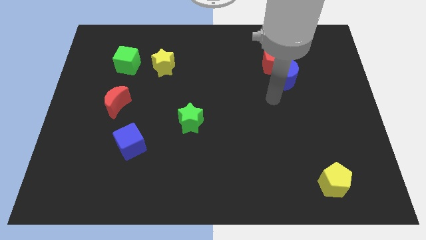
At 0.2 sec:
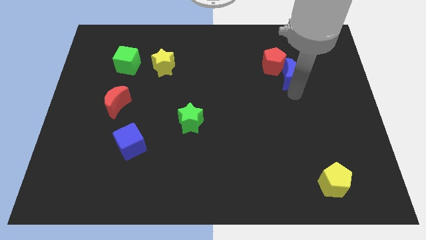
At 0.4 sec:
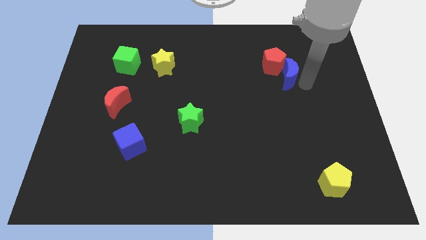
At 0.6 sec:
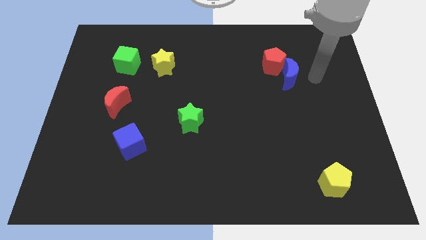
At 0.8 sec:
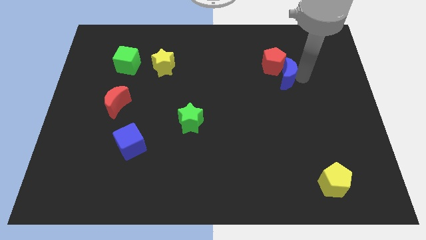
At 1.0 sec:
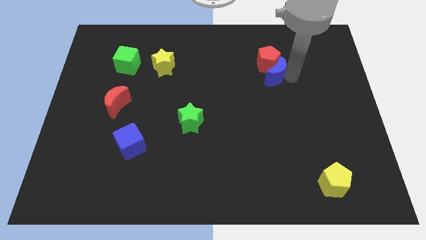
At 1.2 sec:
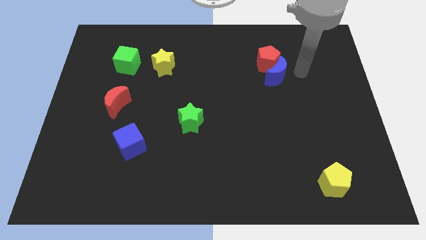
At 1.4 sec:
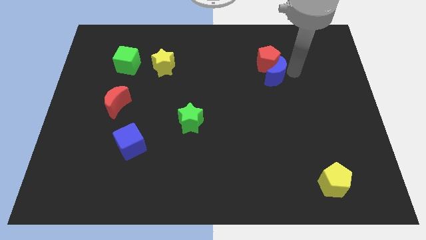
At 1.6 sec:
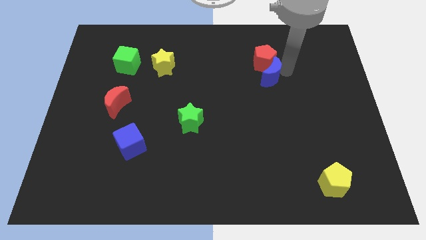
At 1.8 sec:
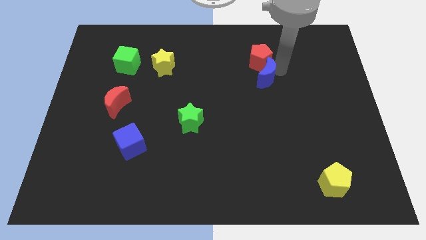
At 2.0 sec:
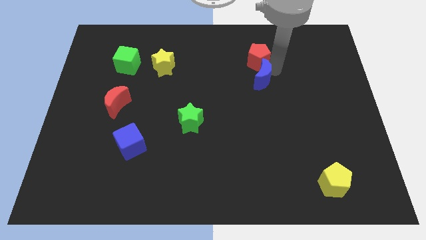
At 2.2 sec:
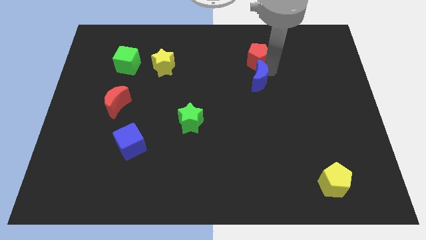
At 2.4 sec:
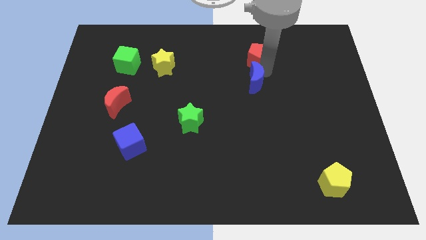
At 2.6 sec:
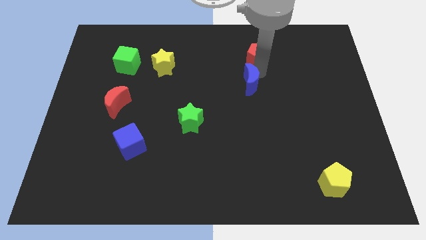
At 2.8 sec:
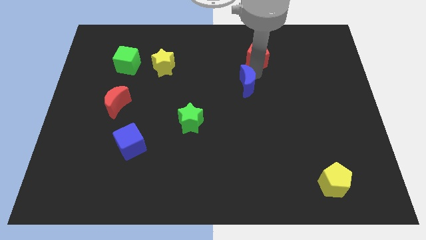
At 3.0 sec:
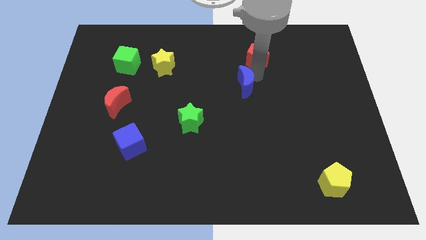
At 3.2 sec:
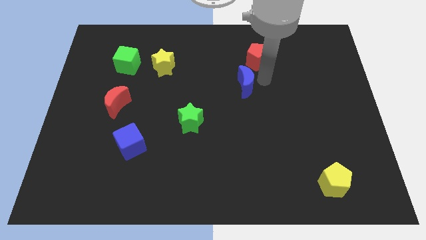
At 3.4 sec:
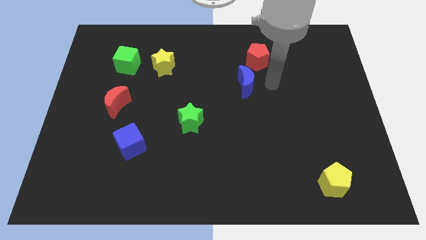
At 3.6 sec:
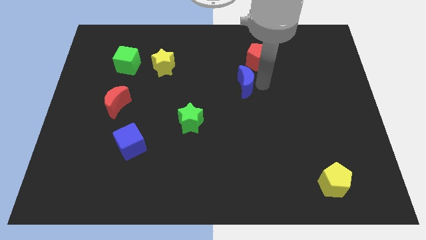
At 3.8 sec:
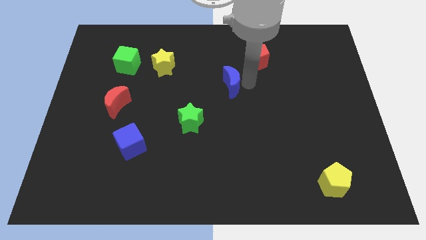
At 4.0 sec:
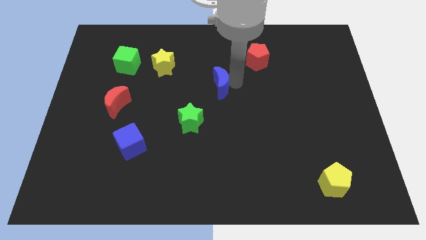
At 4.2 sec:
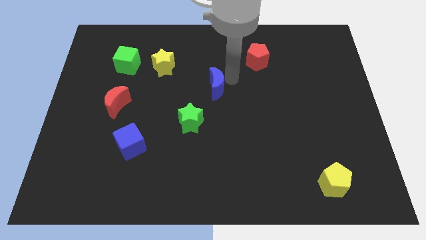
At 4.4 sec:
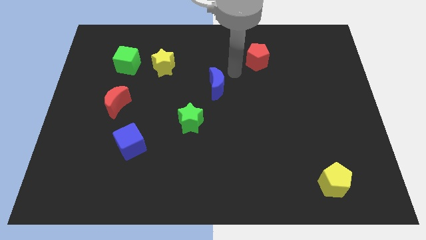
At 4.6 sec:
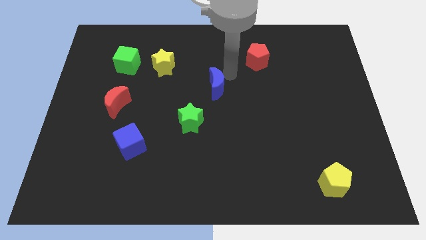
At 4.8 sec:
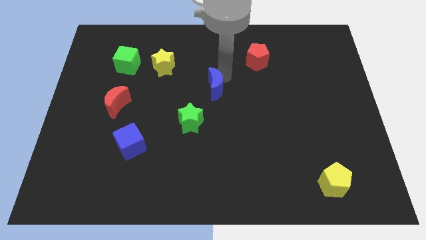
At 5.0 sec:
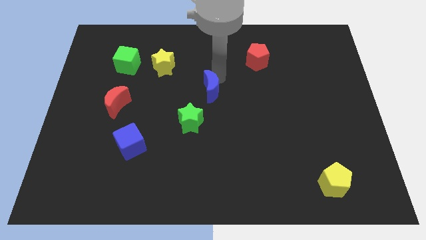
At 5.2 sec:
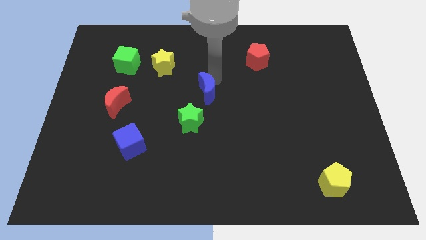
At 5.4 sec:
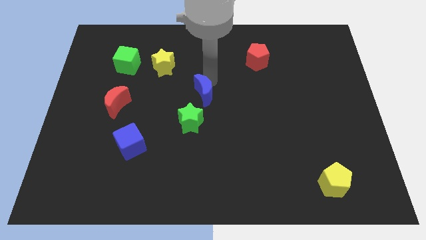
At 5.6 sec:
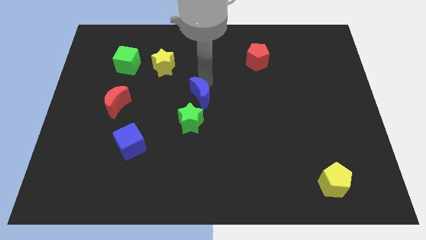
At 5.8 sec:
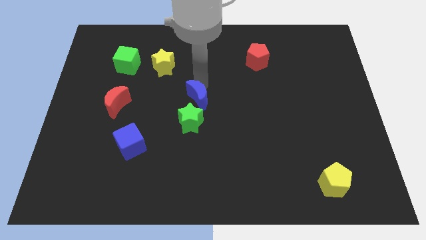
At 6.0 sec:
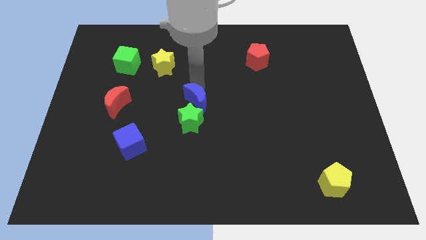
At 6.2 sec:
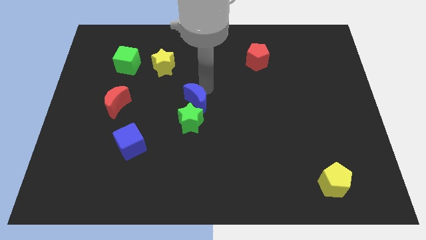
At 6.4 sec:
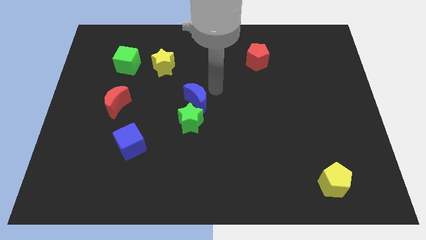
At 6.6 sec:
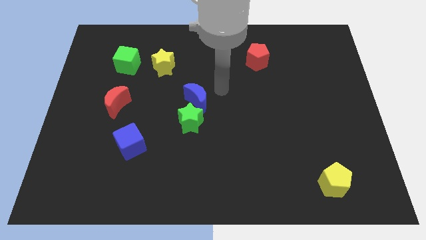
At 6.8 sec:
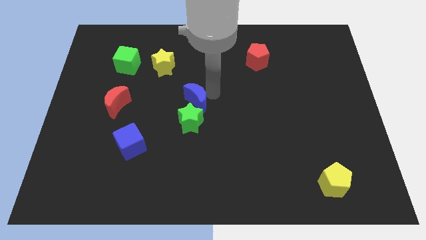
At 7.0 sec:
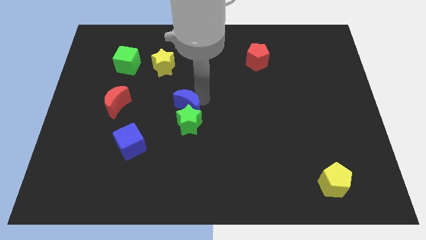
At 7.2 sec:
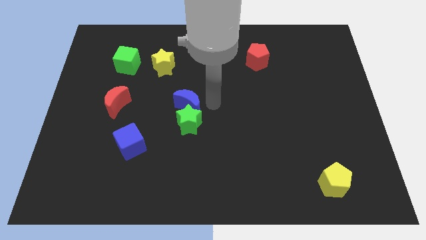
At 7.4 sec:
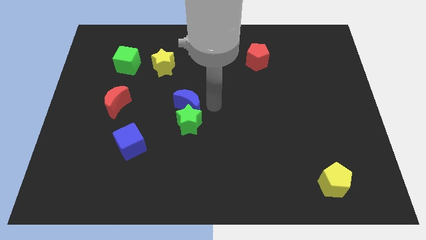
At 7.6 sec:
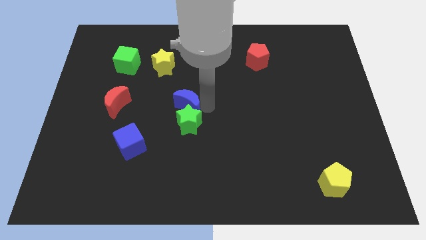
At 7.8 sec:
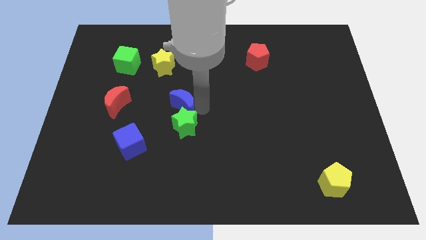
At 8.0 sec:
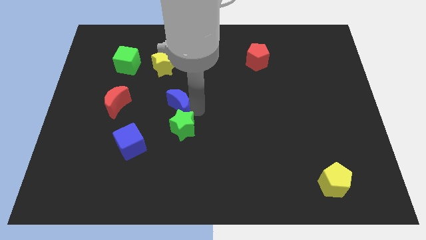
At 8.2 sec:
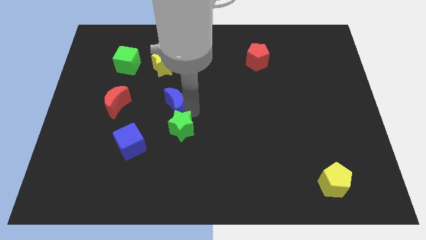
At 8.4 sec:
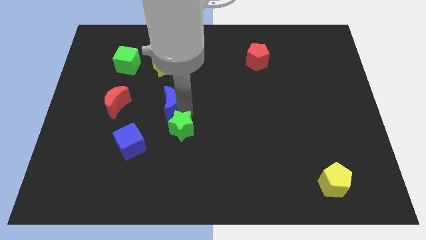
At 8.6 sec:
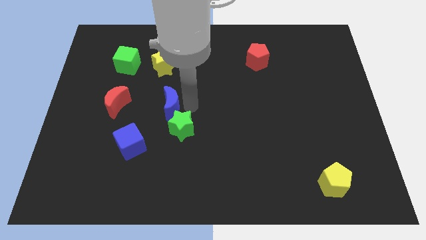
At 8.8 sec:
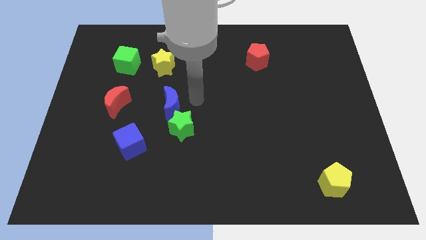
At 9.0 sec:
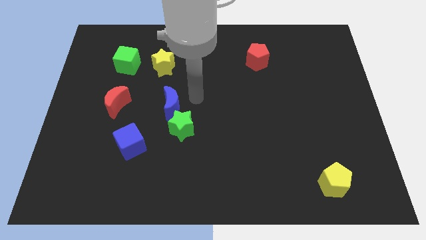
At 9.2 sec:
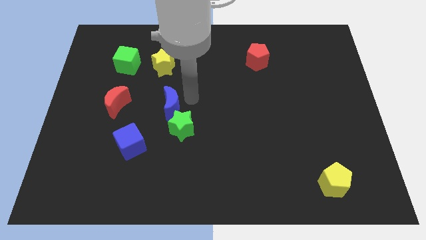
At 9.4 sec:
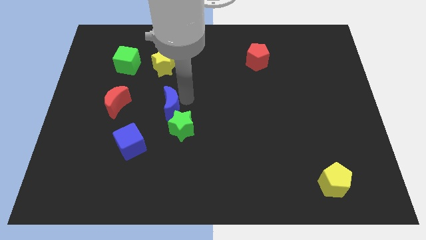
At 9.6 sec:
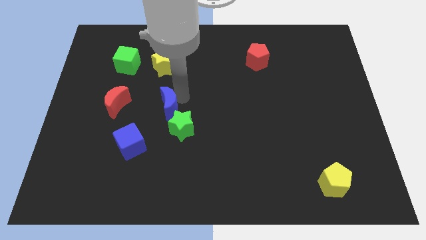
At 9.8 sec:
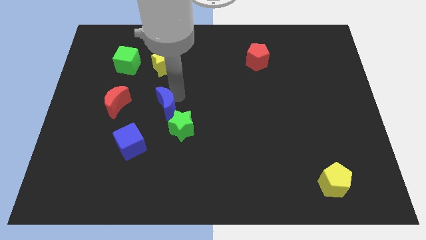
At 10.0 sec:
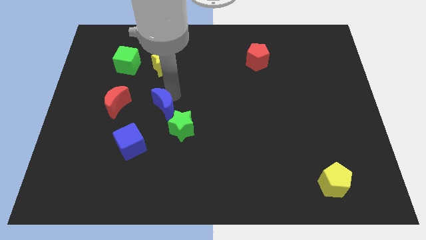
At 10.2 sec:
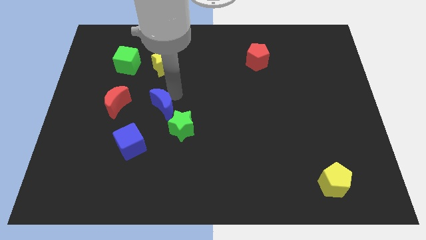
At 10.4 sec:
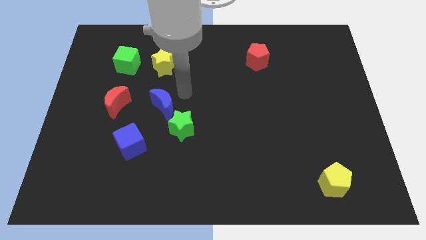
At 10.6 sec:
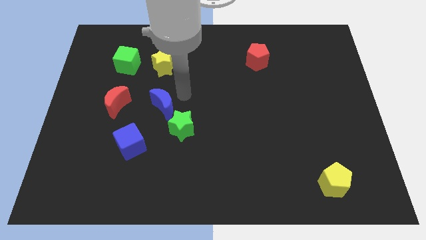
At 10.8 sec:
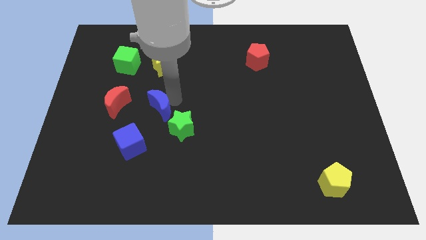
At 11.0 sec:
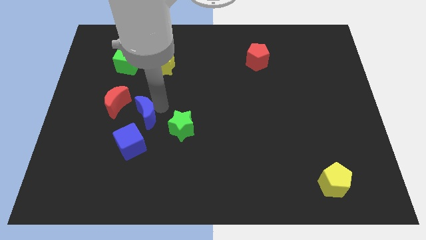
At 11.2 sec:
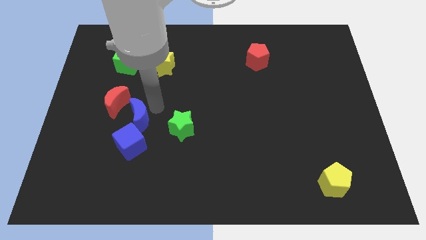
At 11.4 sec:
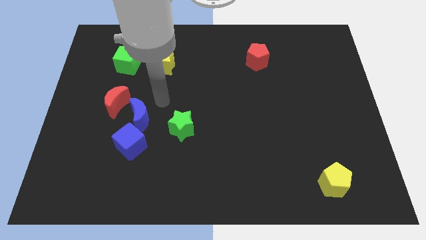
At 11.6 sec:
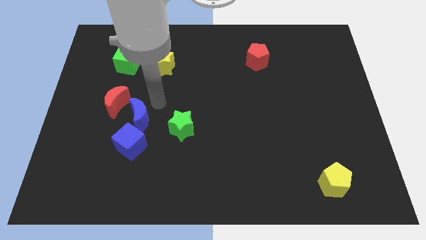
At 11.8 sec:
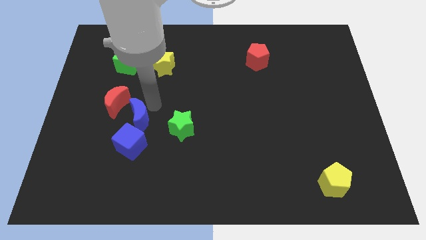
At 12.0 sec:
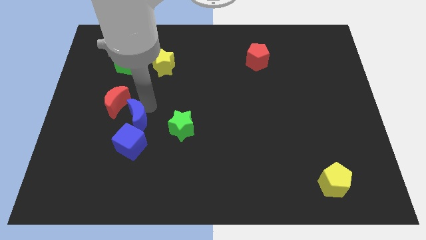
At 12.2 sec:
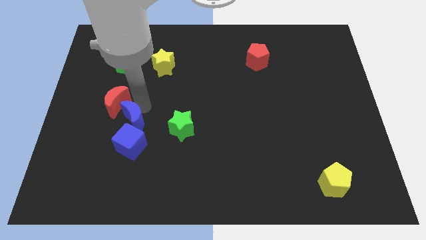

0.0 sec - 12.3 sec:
move the blue moon to the bottom side of the red moon
